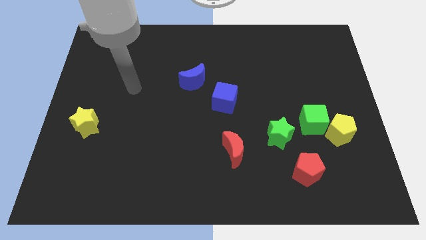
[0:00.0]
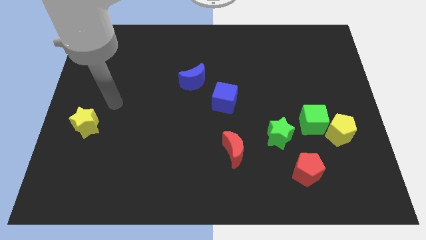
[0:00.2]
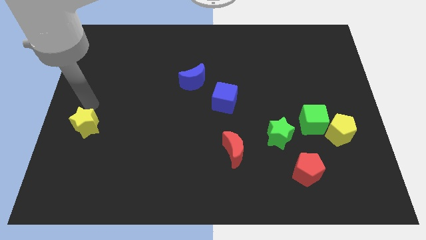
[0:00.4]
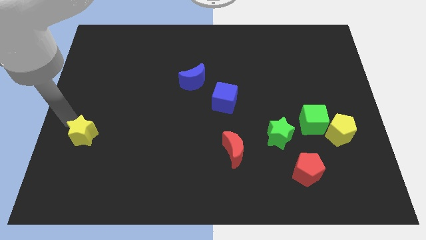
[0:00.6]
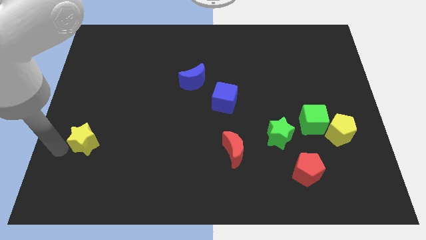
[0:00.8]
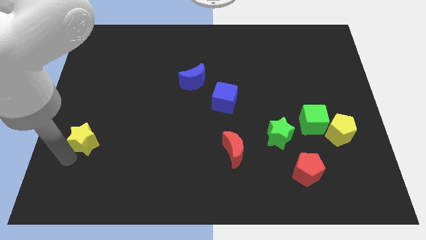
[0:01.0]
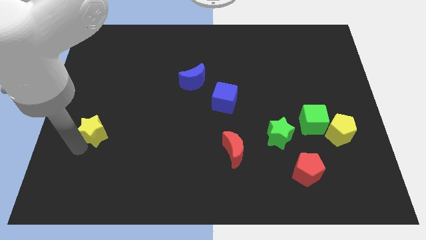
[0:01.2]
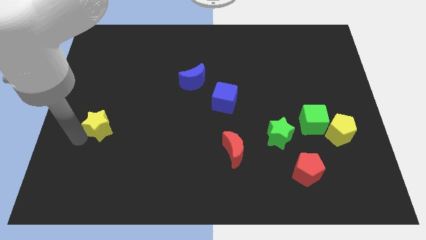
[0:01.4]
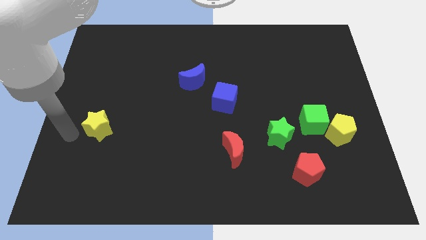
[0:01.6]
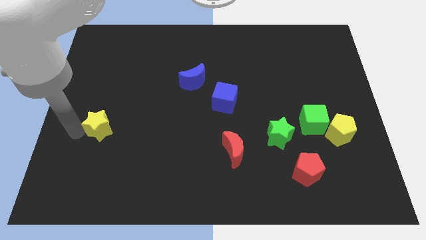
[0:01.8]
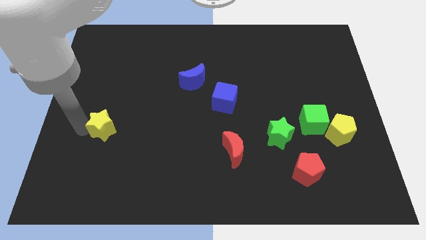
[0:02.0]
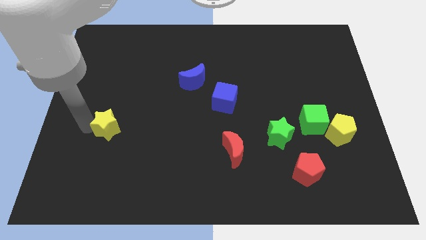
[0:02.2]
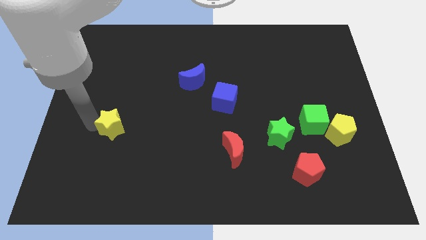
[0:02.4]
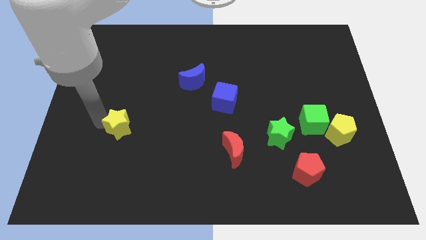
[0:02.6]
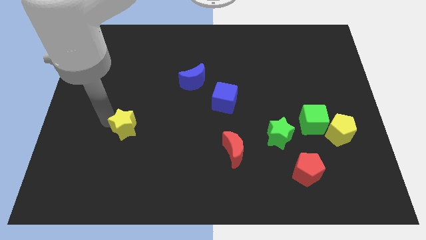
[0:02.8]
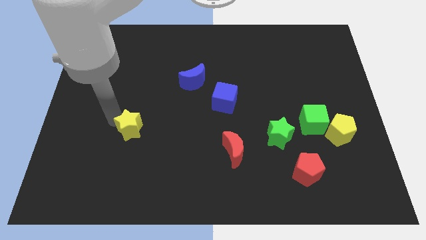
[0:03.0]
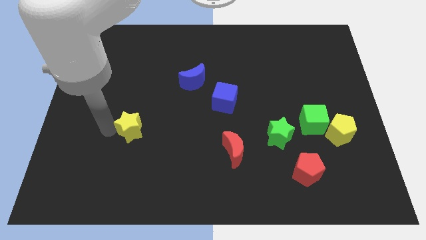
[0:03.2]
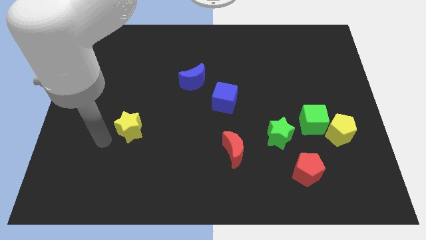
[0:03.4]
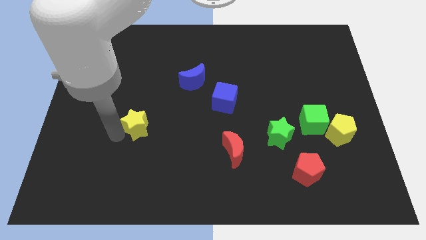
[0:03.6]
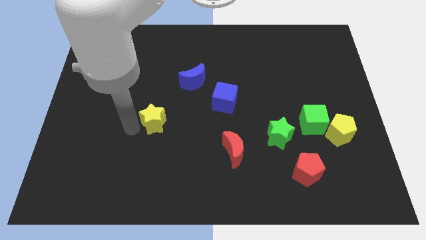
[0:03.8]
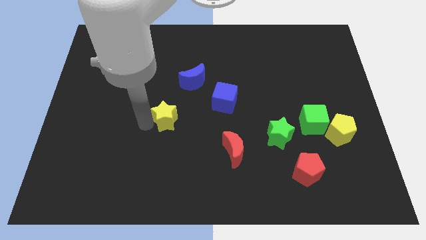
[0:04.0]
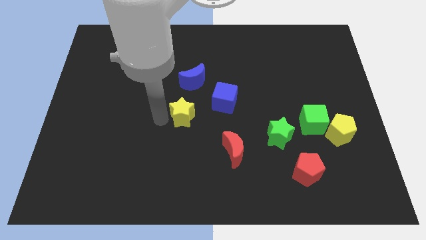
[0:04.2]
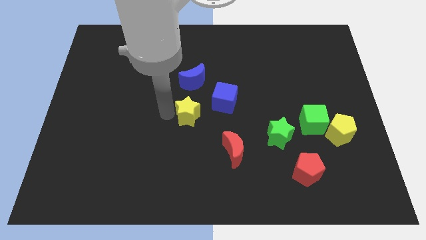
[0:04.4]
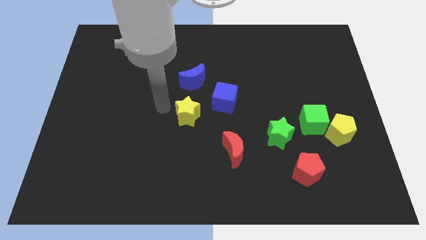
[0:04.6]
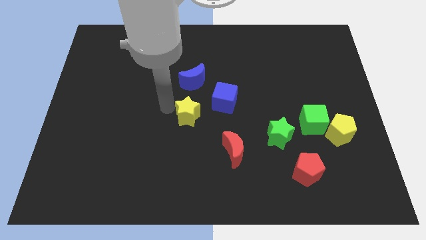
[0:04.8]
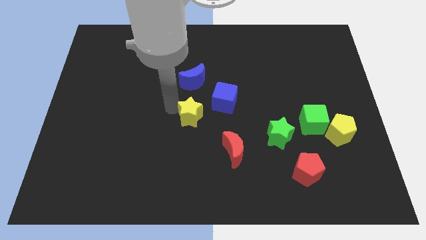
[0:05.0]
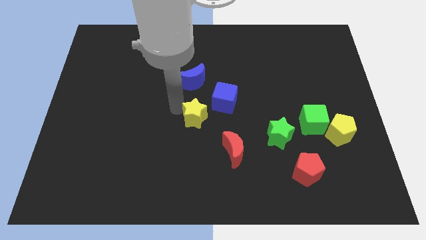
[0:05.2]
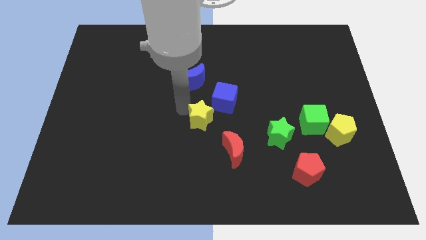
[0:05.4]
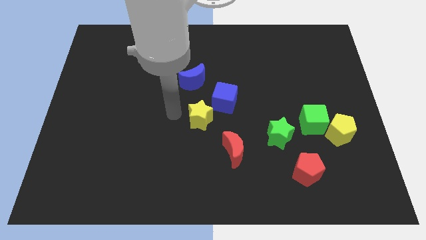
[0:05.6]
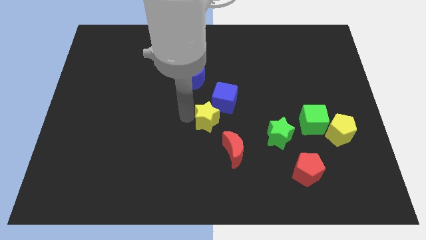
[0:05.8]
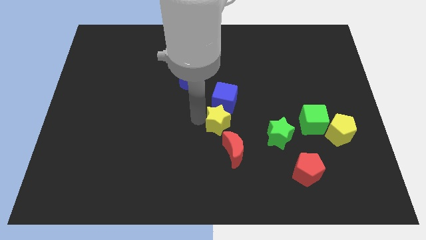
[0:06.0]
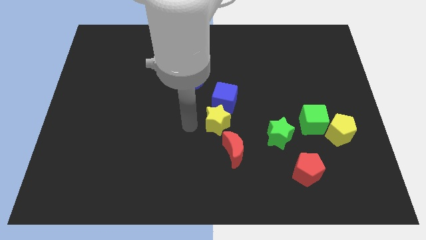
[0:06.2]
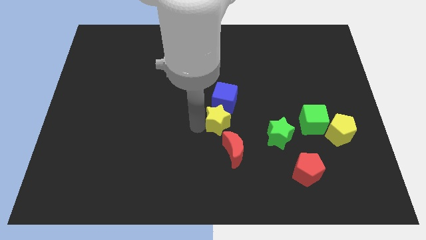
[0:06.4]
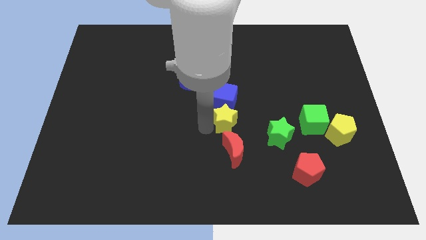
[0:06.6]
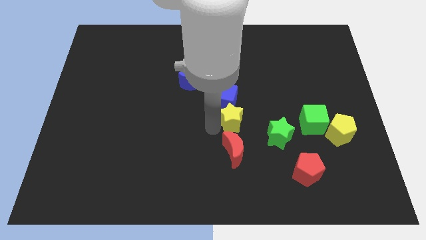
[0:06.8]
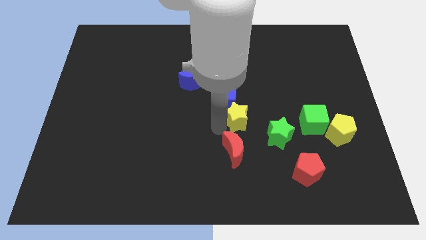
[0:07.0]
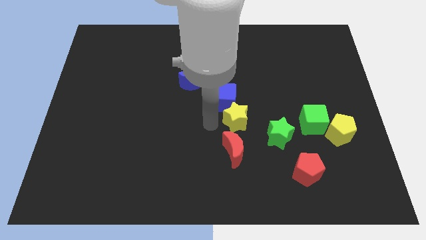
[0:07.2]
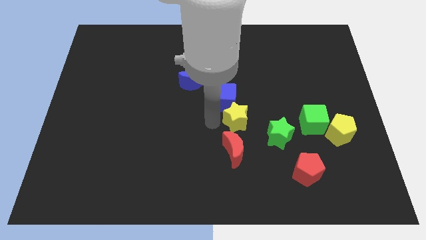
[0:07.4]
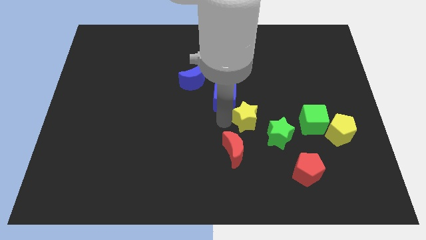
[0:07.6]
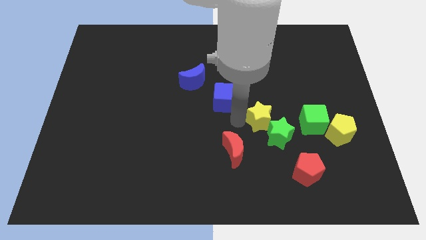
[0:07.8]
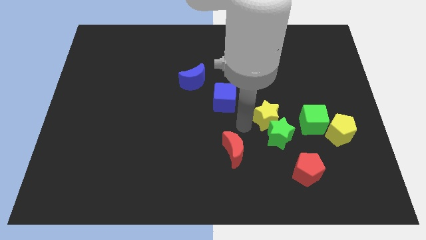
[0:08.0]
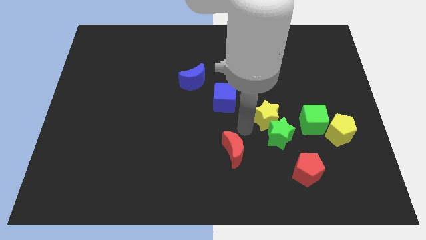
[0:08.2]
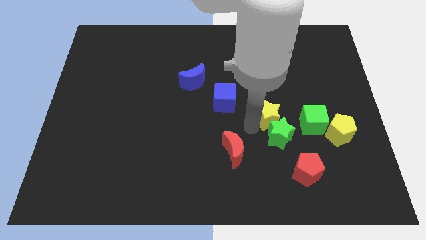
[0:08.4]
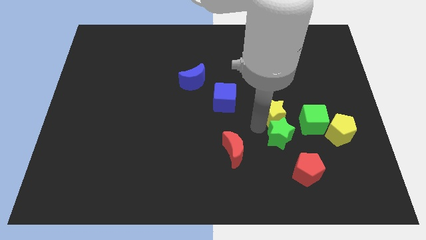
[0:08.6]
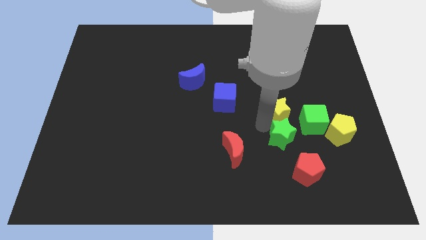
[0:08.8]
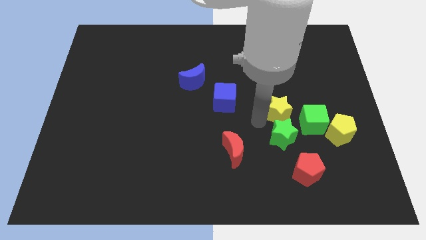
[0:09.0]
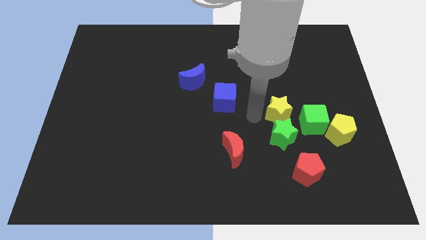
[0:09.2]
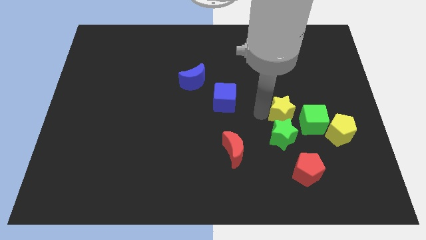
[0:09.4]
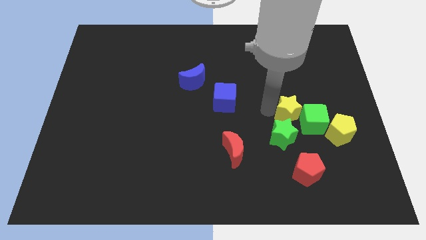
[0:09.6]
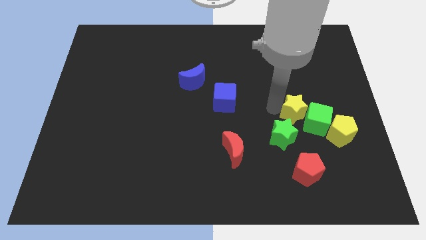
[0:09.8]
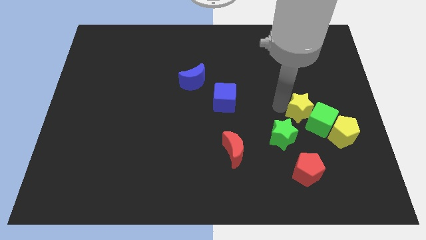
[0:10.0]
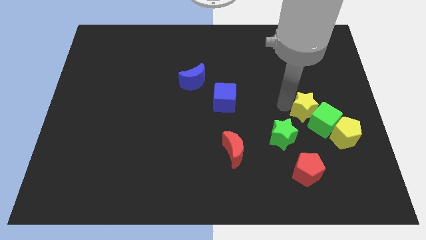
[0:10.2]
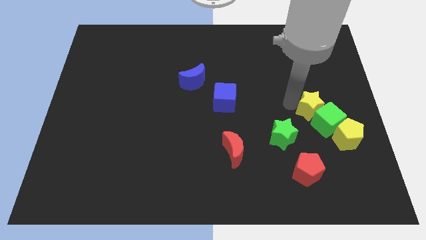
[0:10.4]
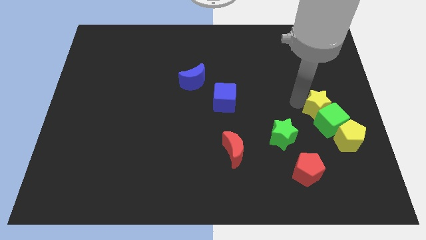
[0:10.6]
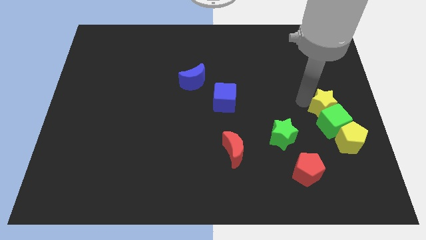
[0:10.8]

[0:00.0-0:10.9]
slide the yellow star to the right side of the board

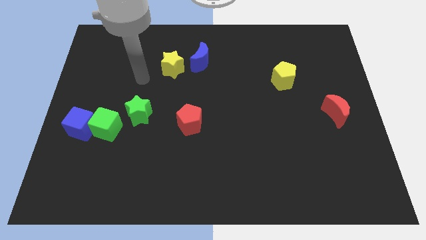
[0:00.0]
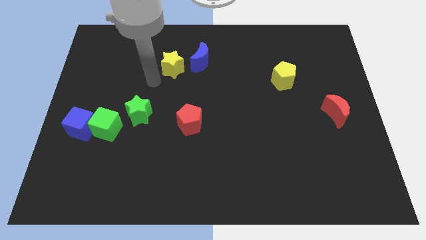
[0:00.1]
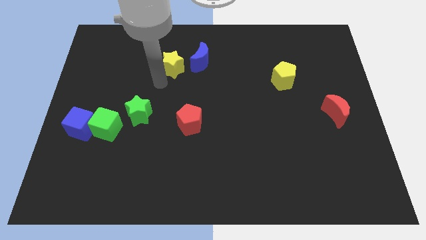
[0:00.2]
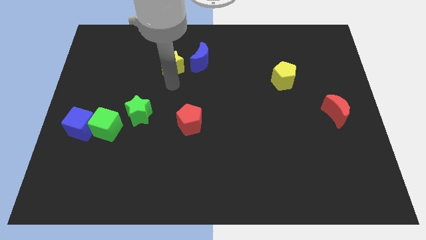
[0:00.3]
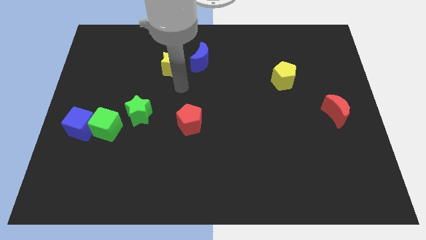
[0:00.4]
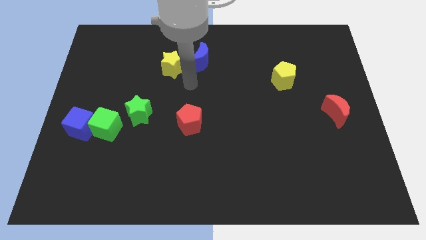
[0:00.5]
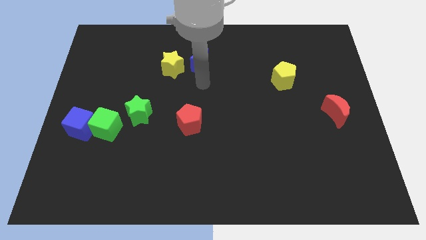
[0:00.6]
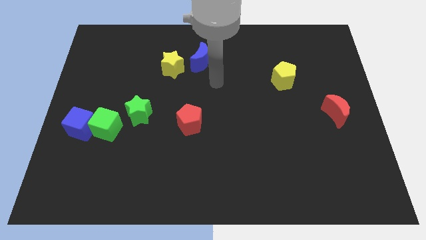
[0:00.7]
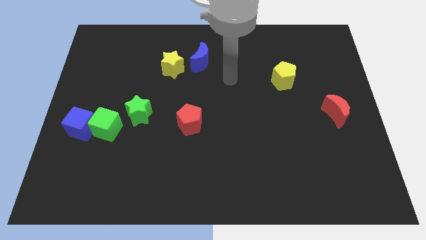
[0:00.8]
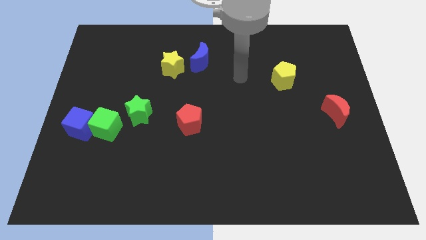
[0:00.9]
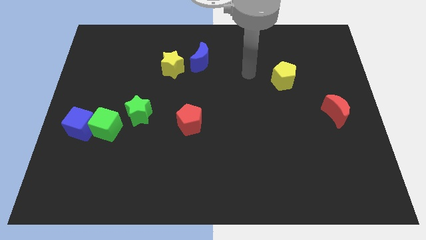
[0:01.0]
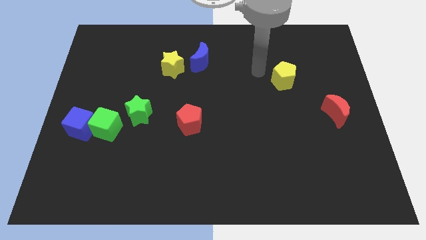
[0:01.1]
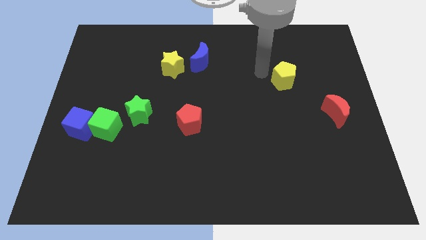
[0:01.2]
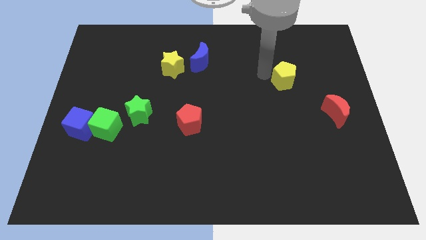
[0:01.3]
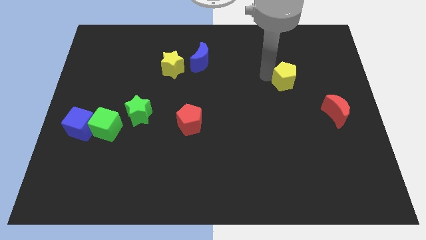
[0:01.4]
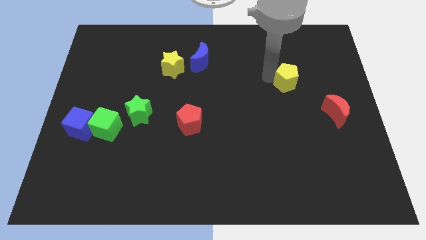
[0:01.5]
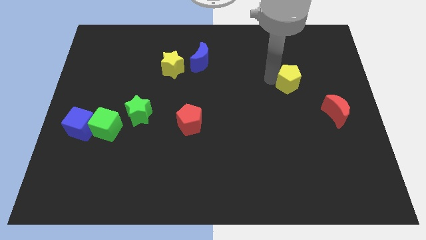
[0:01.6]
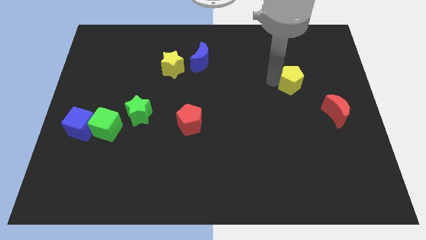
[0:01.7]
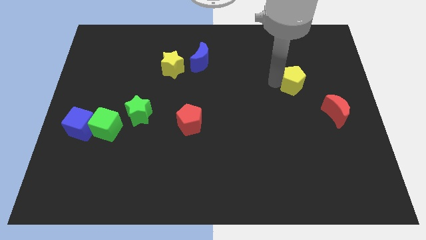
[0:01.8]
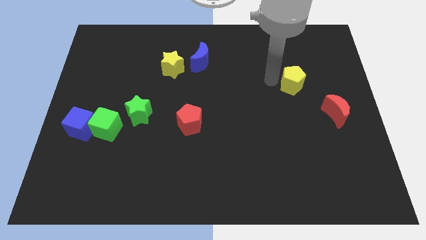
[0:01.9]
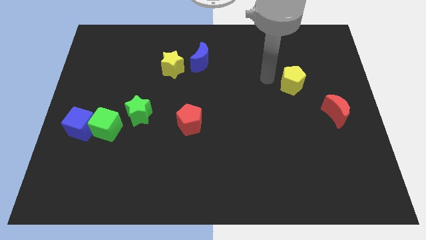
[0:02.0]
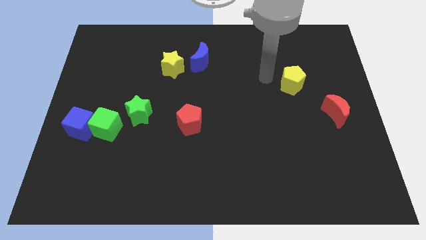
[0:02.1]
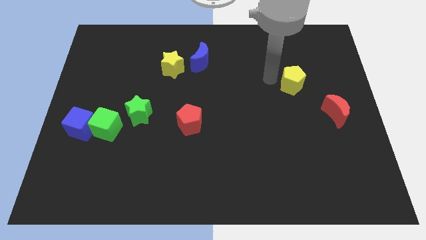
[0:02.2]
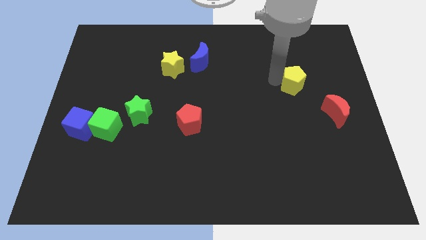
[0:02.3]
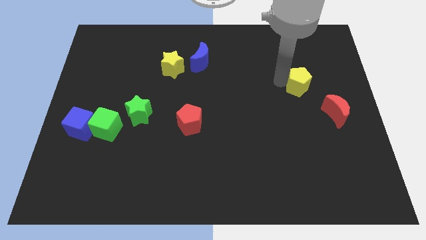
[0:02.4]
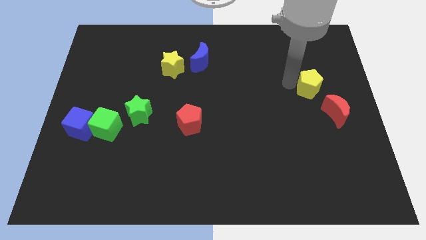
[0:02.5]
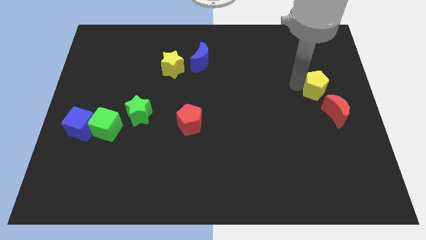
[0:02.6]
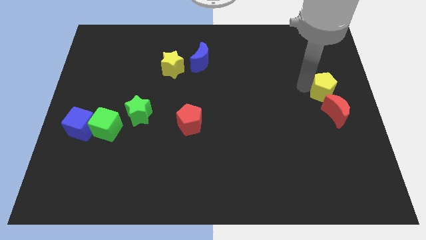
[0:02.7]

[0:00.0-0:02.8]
put the yellow pentagon to the right side of the board
